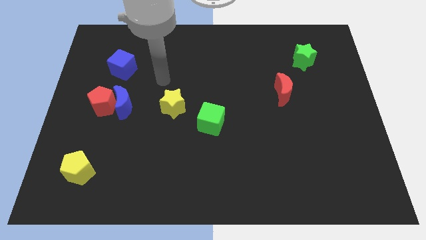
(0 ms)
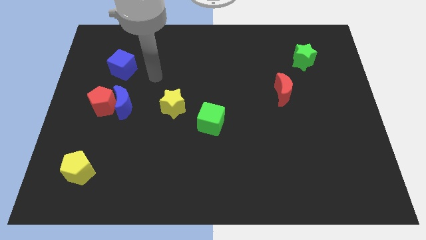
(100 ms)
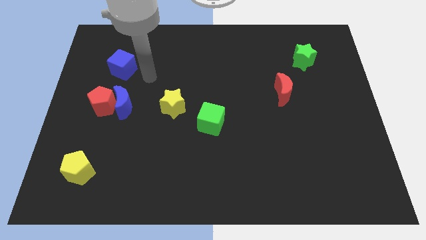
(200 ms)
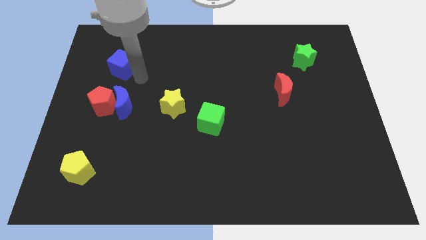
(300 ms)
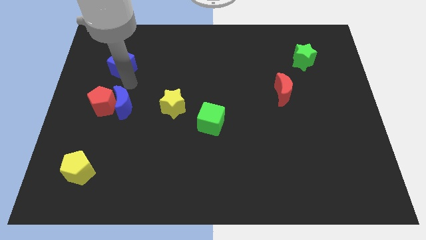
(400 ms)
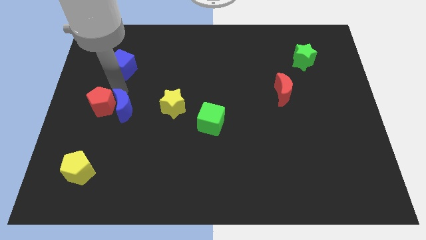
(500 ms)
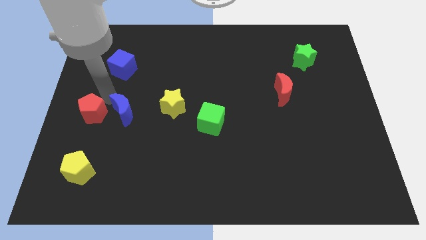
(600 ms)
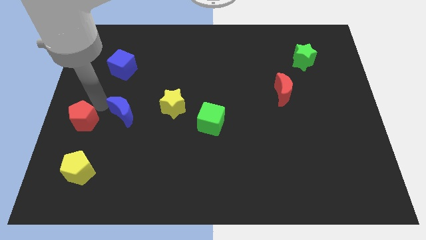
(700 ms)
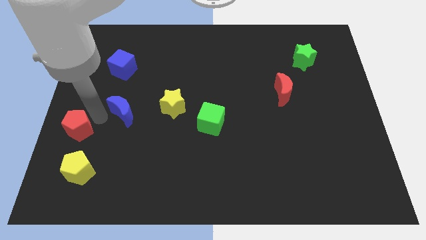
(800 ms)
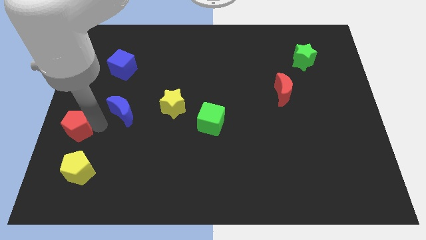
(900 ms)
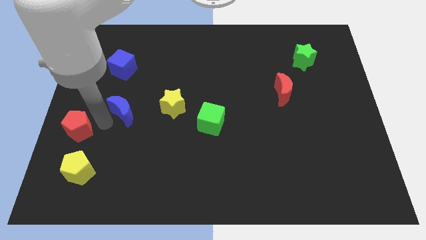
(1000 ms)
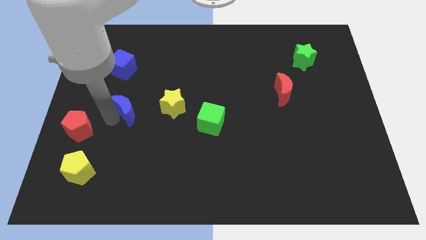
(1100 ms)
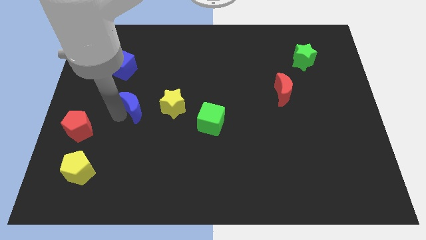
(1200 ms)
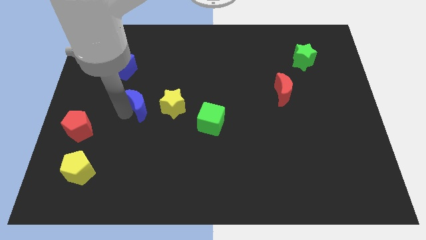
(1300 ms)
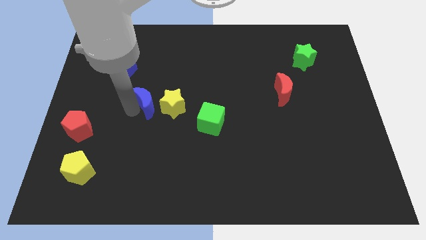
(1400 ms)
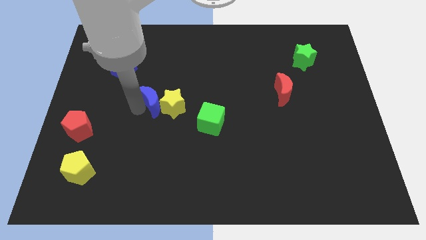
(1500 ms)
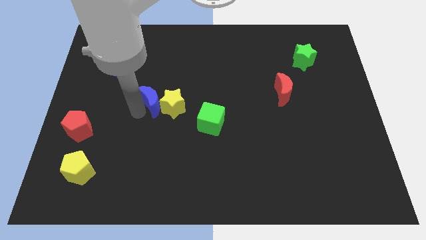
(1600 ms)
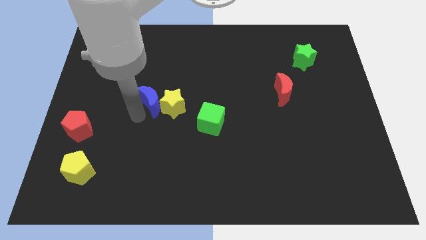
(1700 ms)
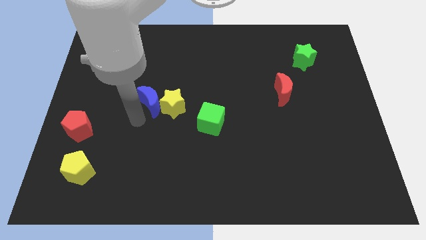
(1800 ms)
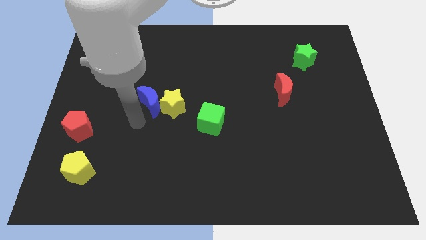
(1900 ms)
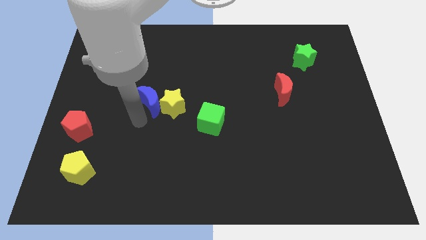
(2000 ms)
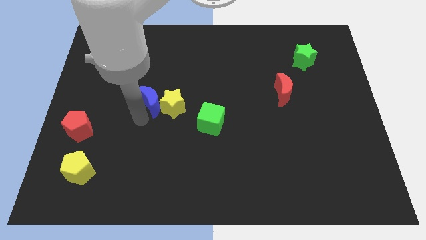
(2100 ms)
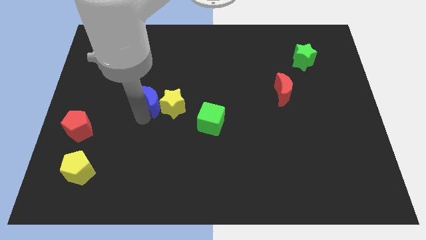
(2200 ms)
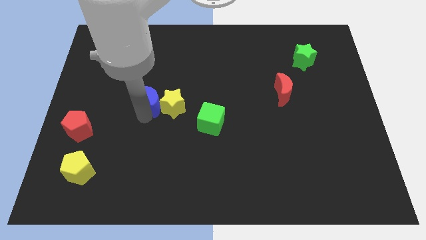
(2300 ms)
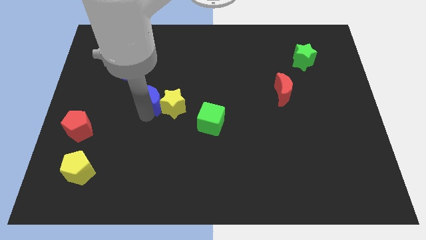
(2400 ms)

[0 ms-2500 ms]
push the blue moon to the right a little

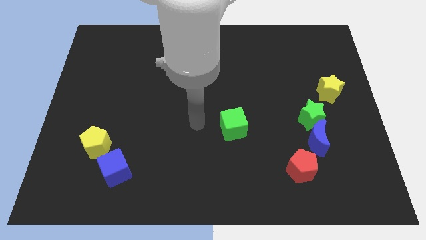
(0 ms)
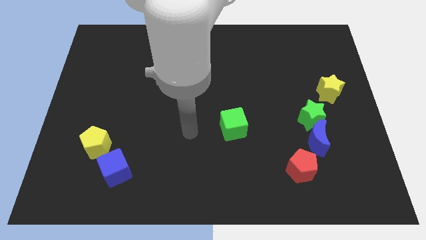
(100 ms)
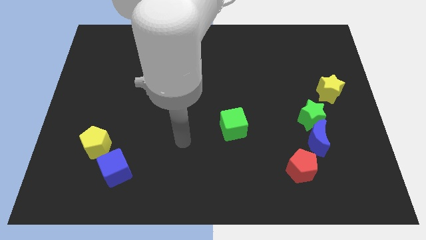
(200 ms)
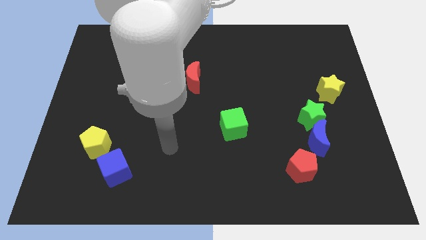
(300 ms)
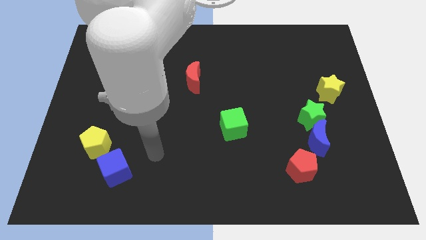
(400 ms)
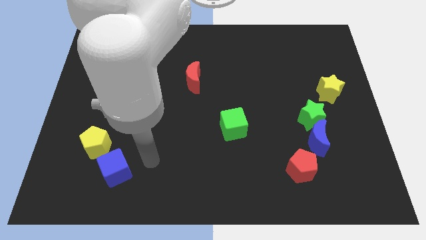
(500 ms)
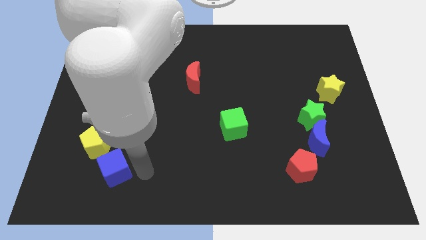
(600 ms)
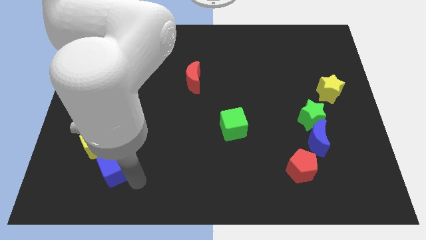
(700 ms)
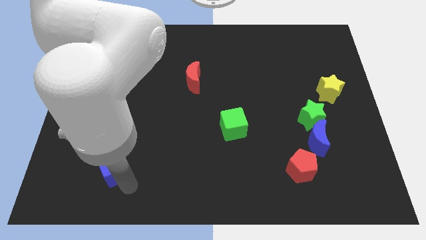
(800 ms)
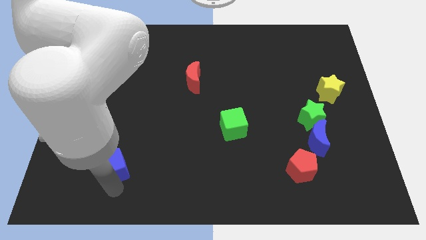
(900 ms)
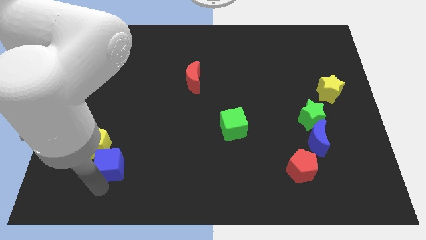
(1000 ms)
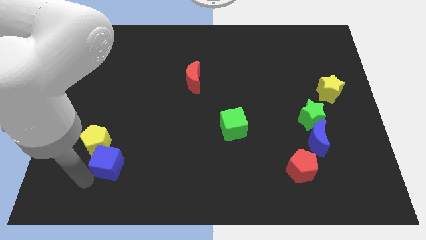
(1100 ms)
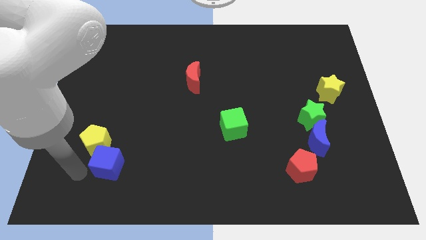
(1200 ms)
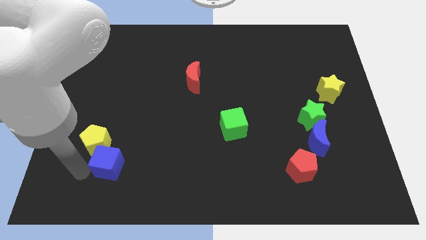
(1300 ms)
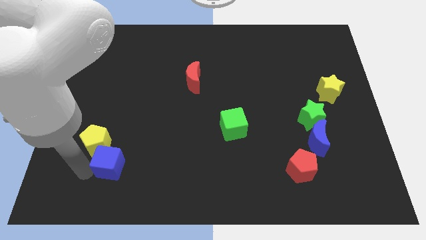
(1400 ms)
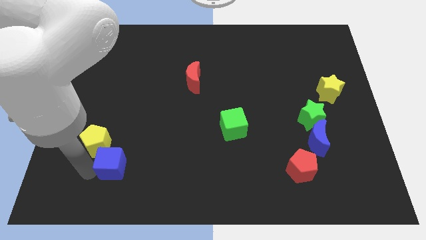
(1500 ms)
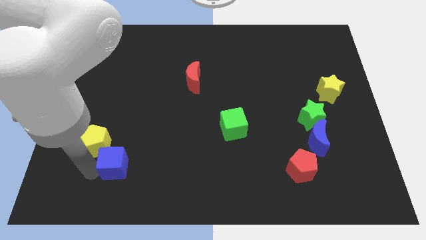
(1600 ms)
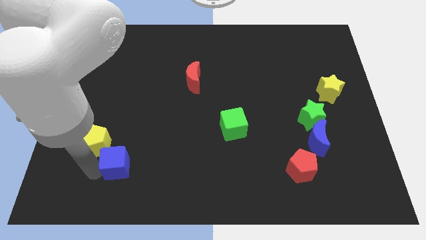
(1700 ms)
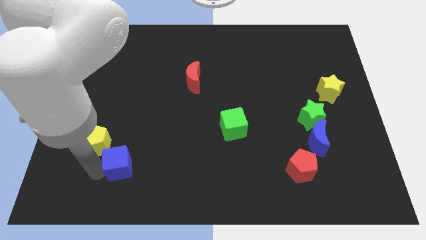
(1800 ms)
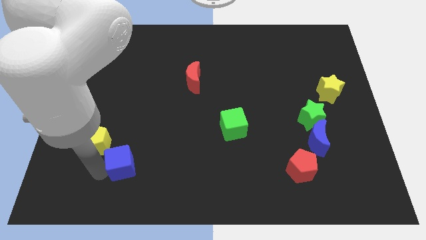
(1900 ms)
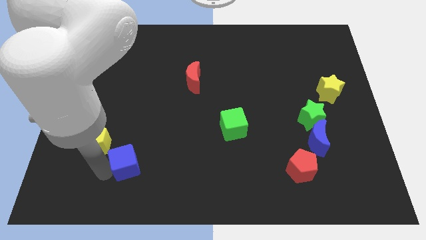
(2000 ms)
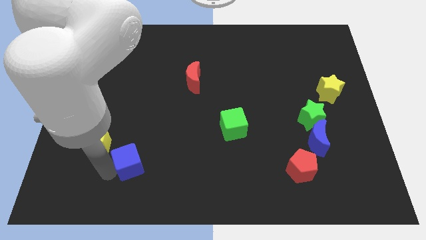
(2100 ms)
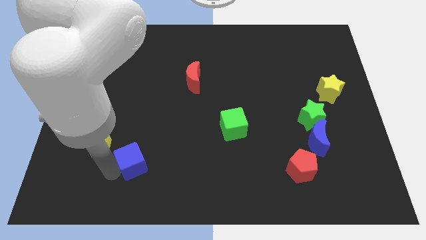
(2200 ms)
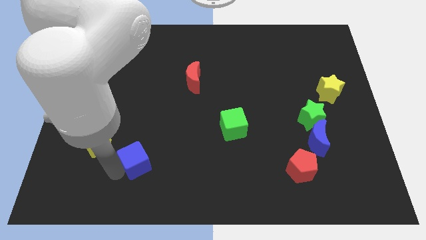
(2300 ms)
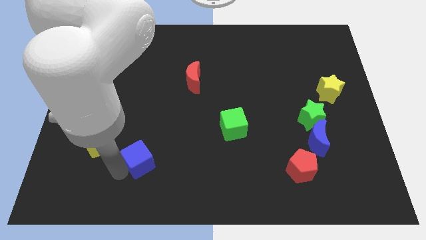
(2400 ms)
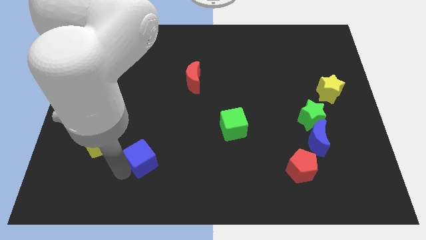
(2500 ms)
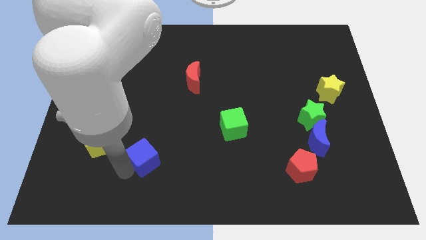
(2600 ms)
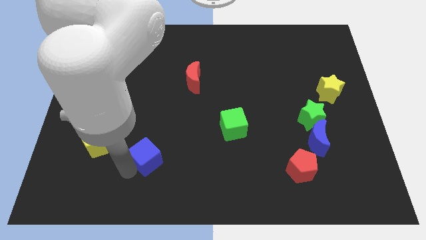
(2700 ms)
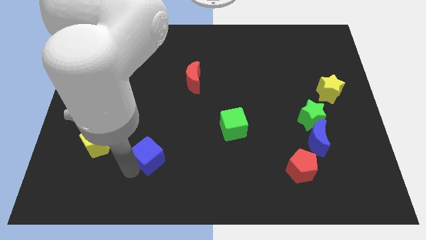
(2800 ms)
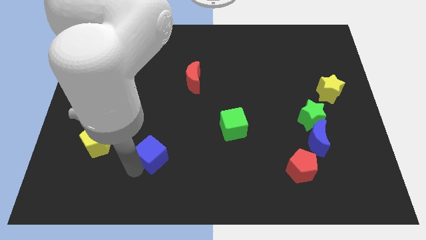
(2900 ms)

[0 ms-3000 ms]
slide the blue cube up and then right a little

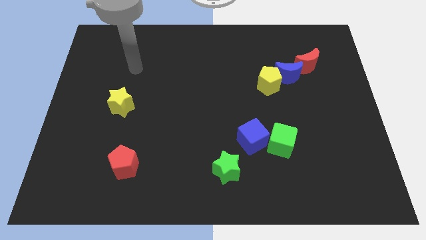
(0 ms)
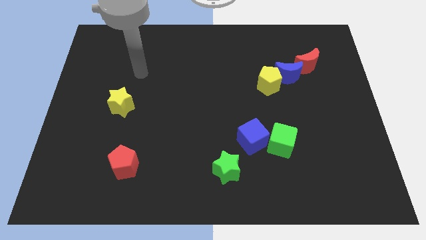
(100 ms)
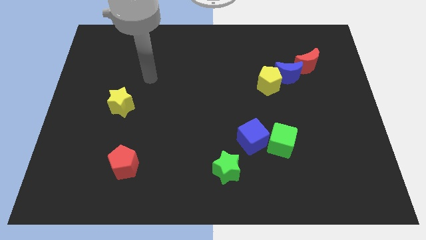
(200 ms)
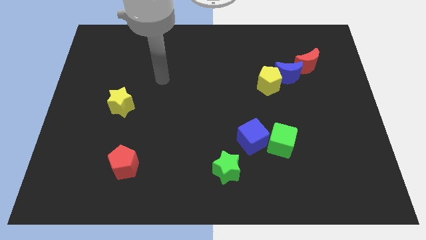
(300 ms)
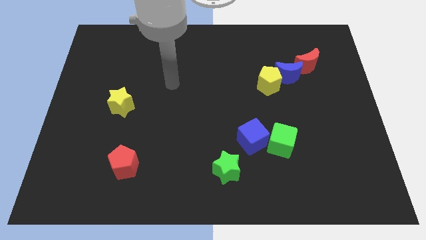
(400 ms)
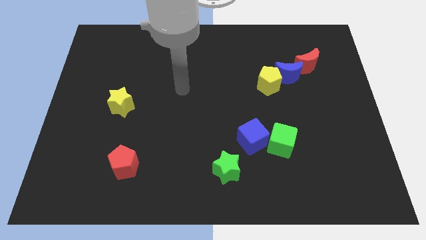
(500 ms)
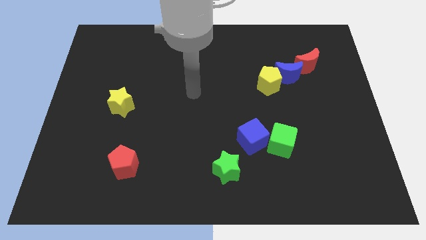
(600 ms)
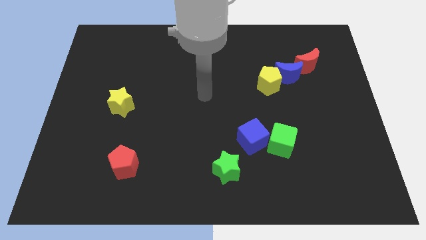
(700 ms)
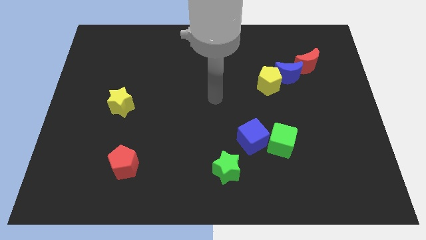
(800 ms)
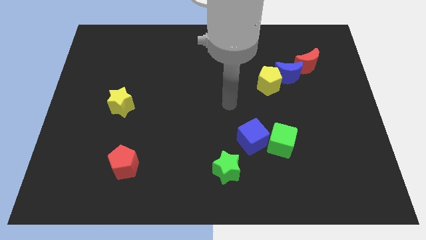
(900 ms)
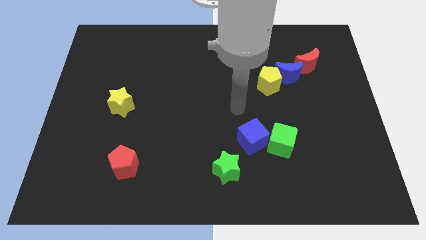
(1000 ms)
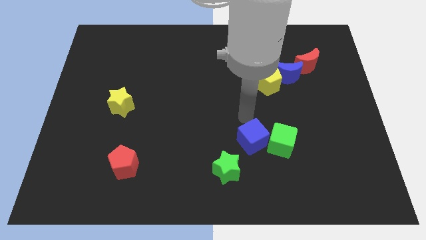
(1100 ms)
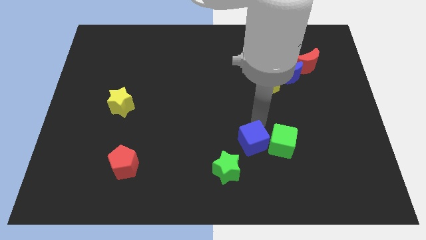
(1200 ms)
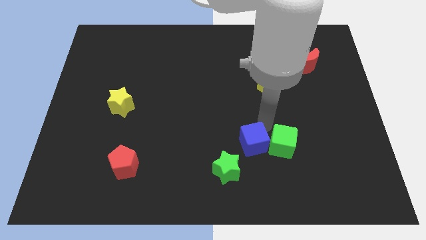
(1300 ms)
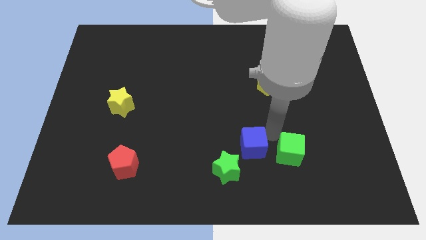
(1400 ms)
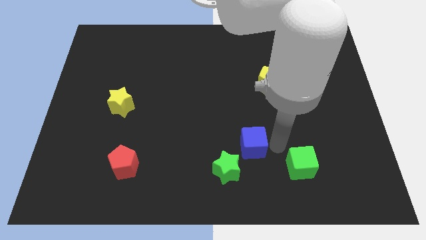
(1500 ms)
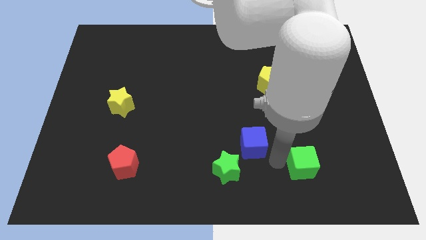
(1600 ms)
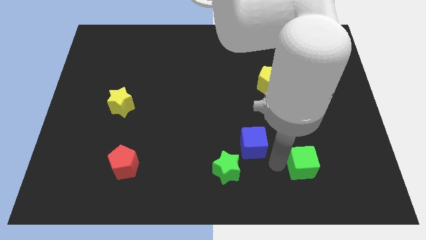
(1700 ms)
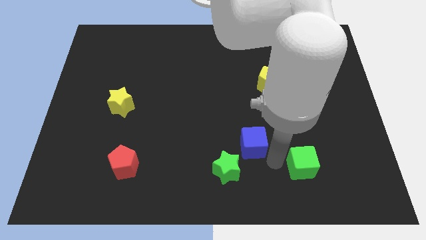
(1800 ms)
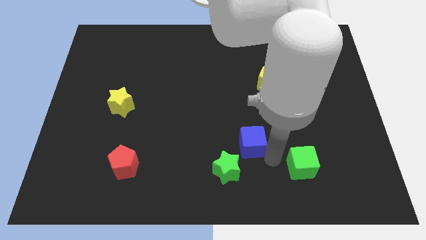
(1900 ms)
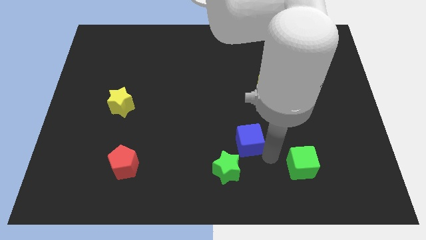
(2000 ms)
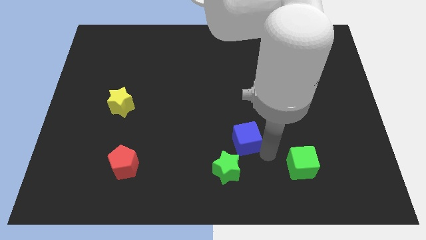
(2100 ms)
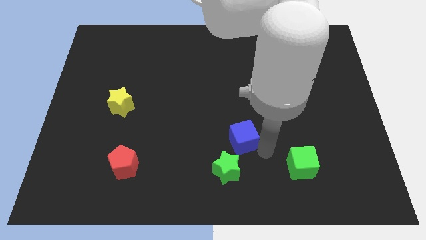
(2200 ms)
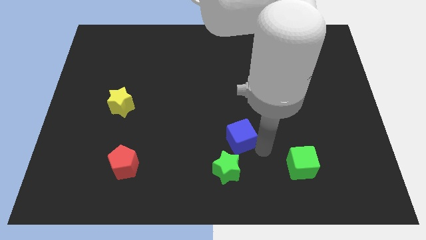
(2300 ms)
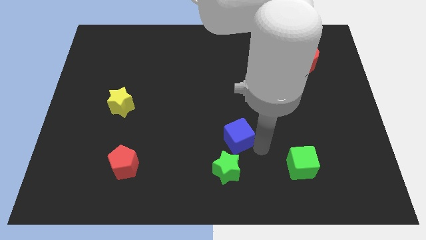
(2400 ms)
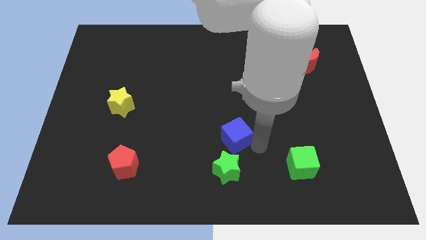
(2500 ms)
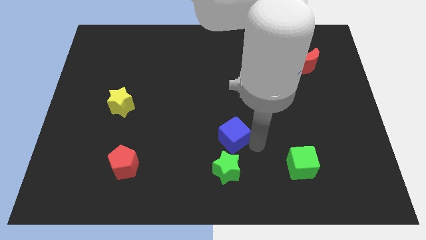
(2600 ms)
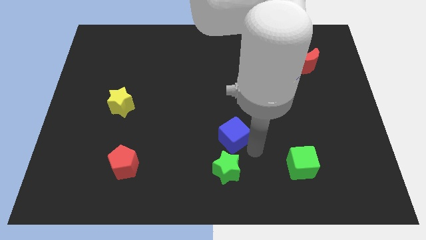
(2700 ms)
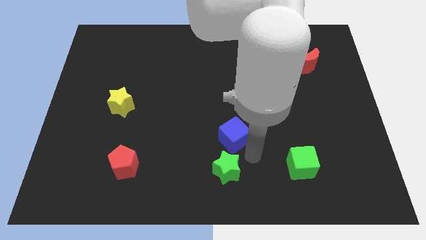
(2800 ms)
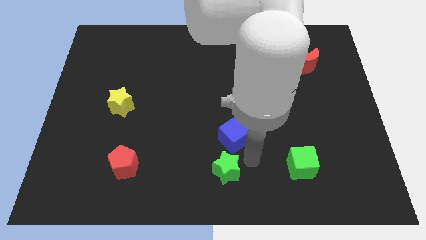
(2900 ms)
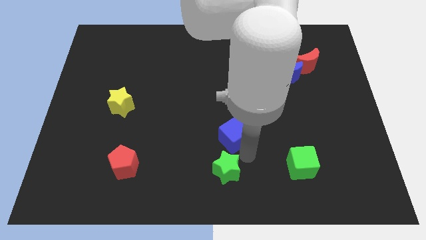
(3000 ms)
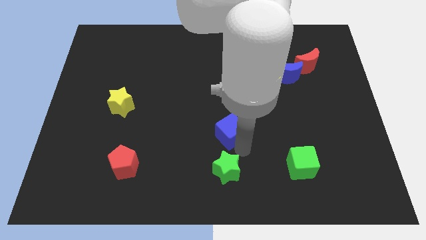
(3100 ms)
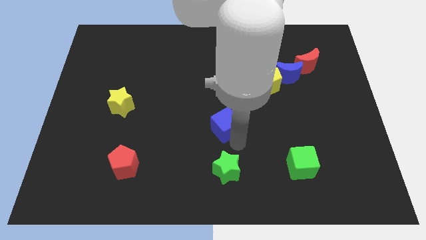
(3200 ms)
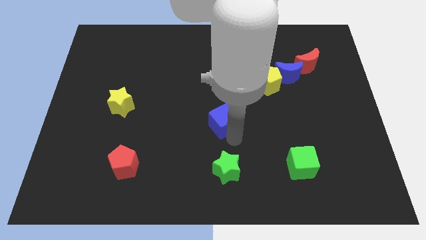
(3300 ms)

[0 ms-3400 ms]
slightly slide the blue cube up and left diagonally
